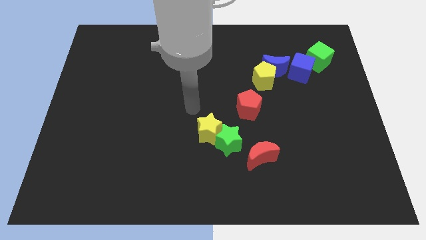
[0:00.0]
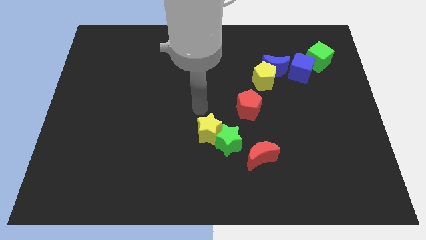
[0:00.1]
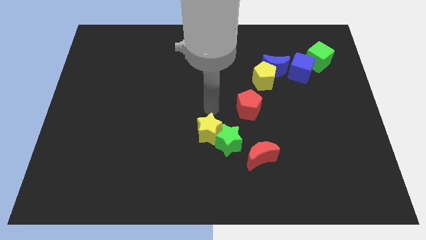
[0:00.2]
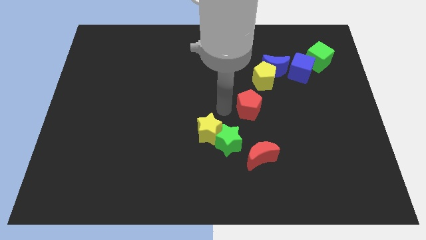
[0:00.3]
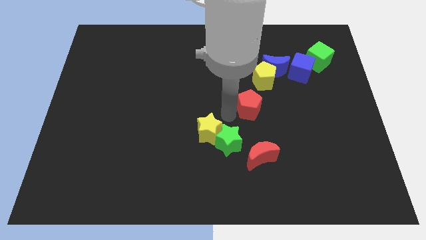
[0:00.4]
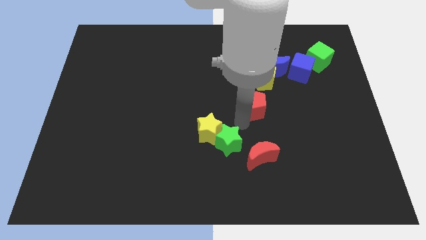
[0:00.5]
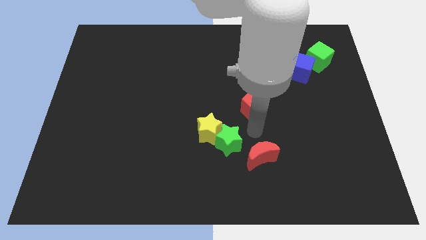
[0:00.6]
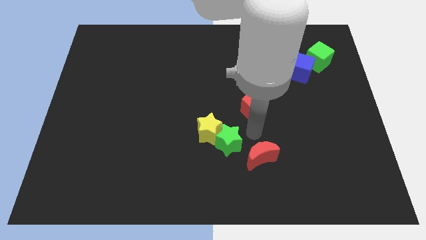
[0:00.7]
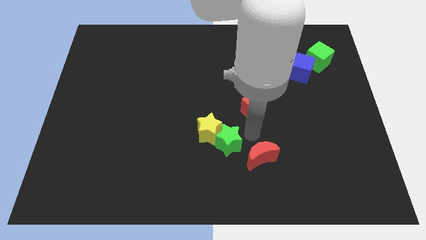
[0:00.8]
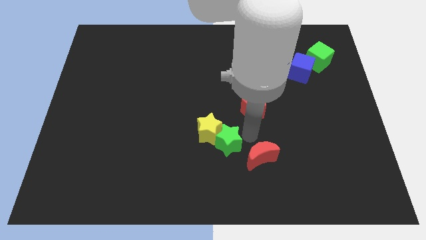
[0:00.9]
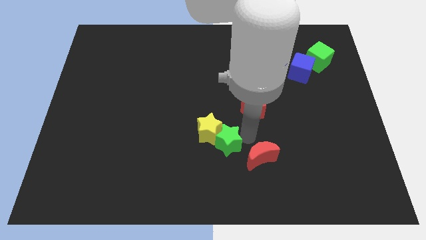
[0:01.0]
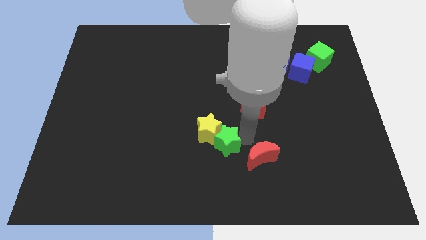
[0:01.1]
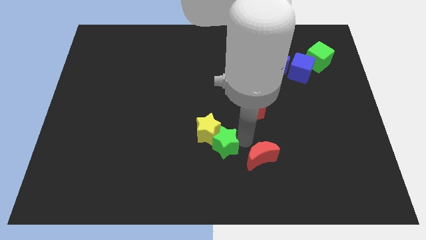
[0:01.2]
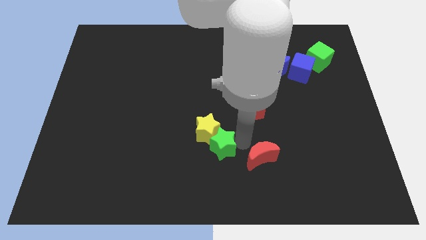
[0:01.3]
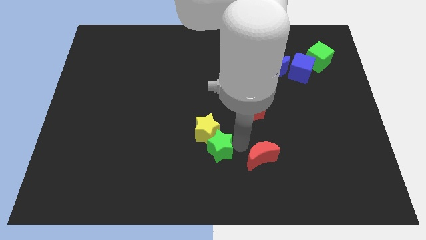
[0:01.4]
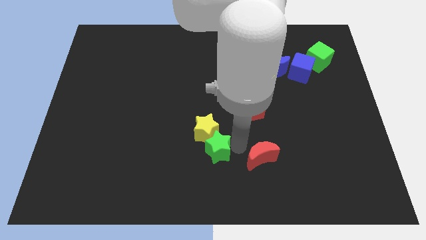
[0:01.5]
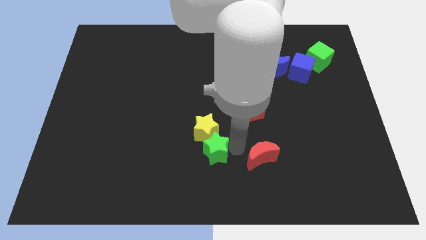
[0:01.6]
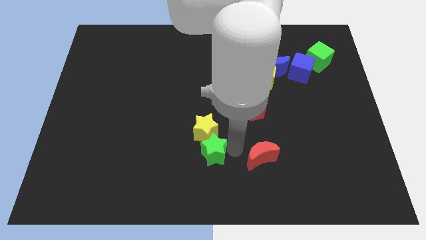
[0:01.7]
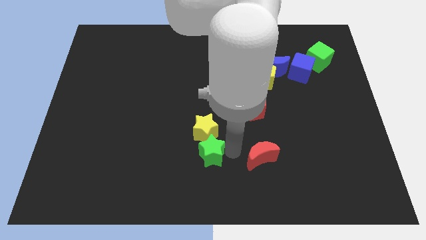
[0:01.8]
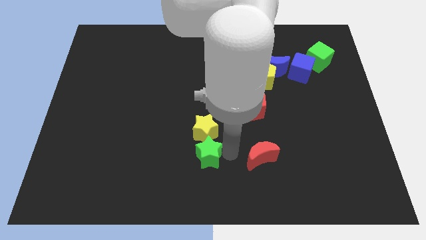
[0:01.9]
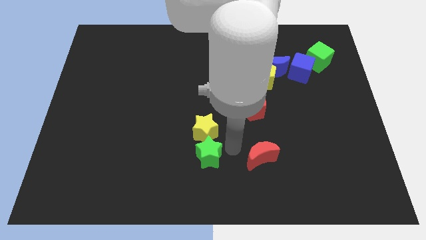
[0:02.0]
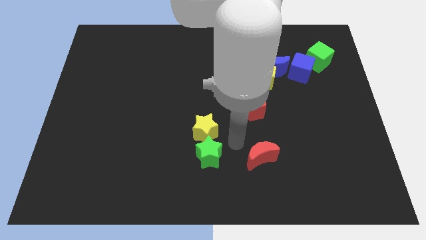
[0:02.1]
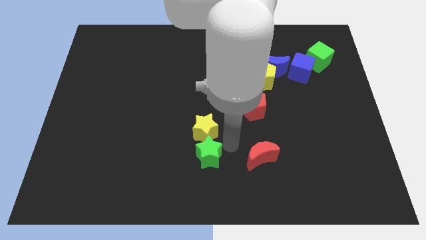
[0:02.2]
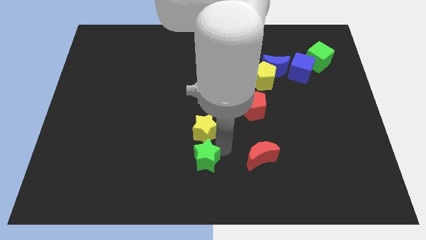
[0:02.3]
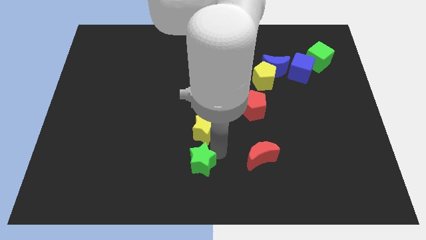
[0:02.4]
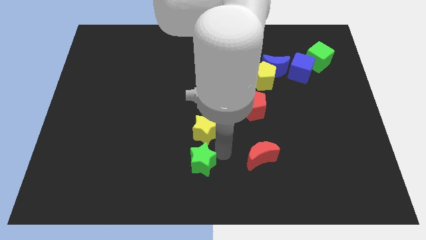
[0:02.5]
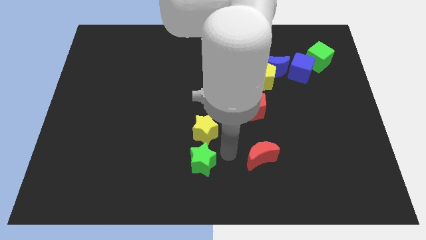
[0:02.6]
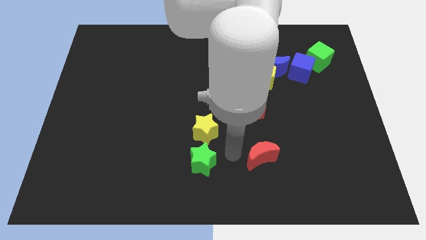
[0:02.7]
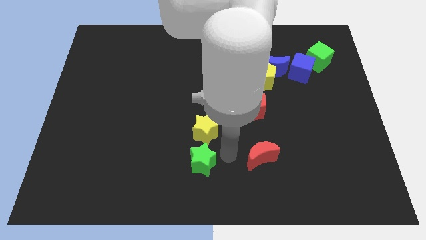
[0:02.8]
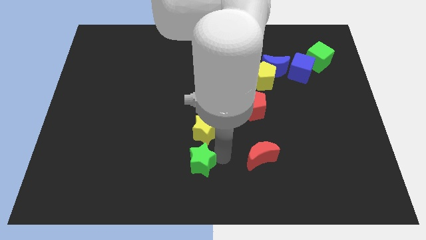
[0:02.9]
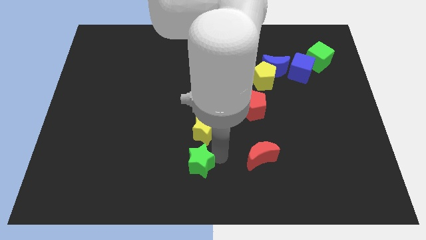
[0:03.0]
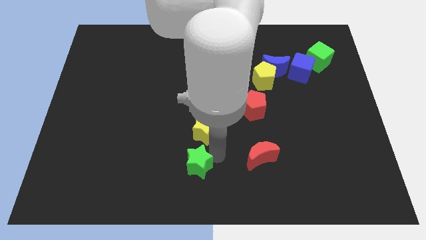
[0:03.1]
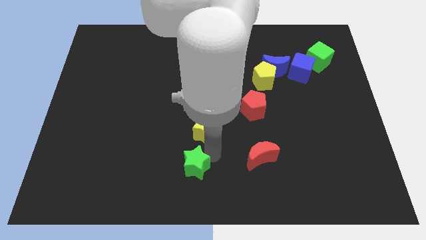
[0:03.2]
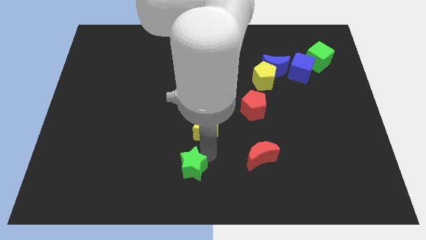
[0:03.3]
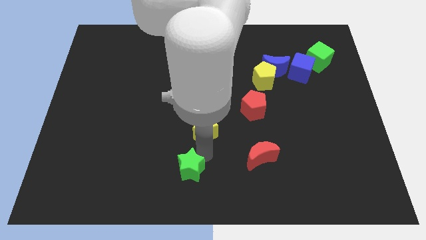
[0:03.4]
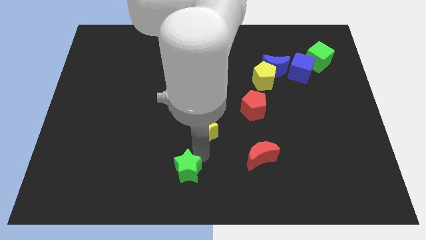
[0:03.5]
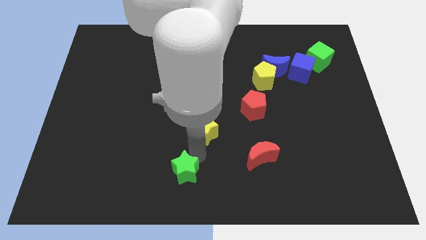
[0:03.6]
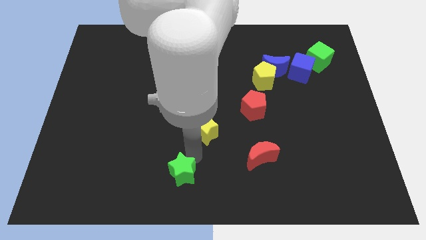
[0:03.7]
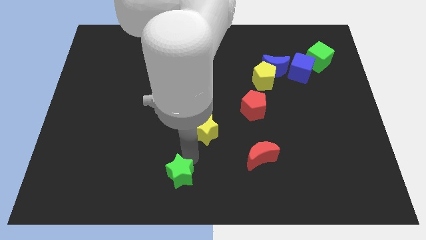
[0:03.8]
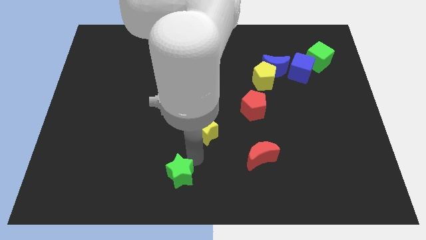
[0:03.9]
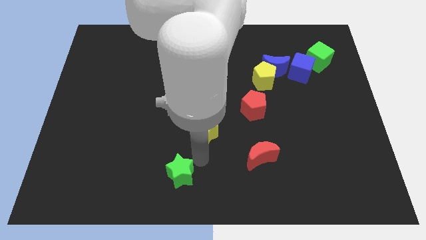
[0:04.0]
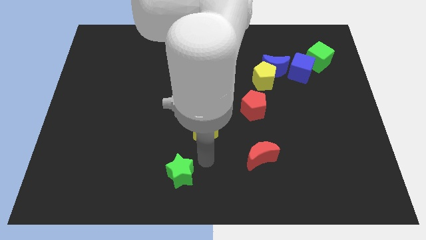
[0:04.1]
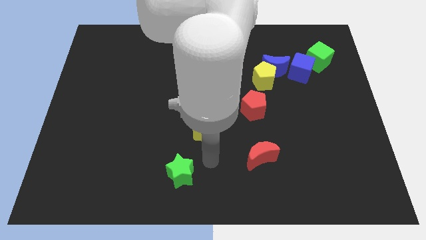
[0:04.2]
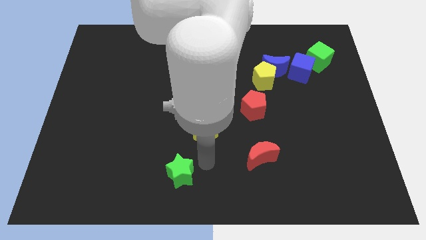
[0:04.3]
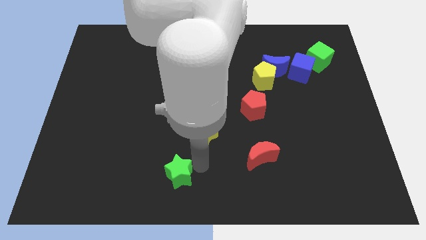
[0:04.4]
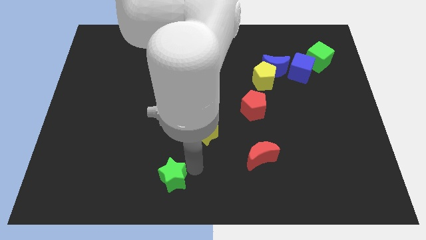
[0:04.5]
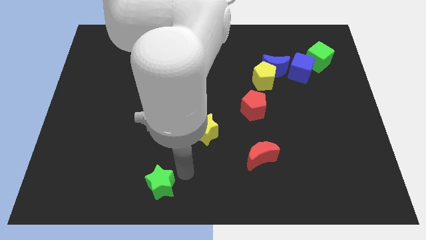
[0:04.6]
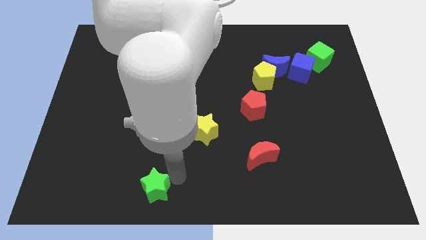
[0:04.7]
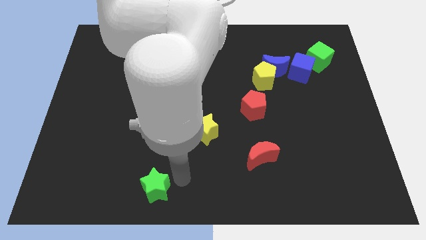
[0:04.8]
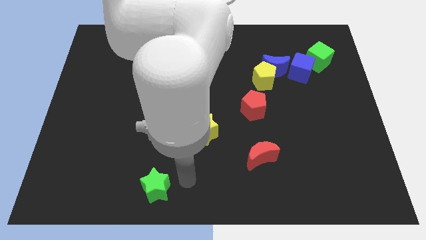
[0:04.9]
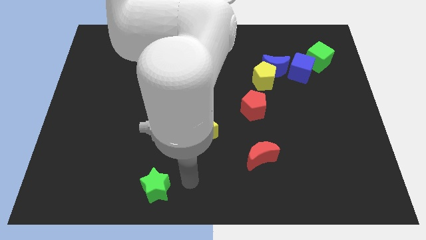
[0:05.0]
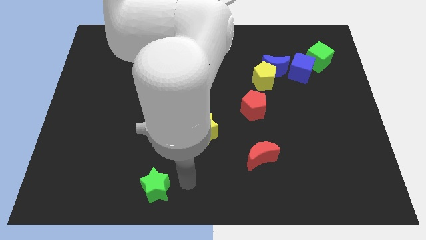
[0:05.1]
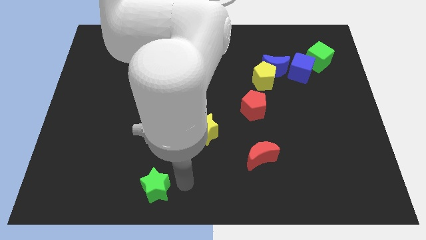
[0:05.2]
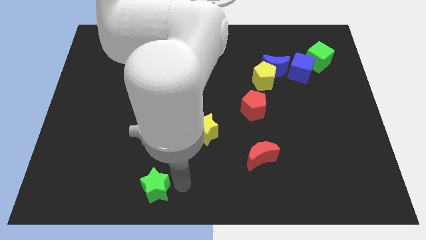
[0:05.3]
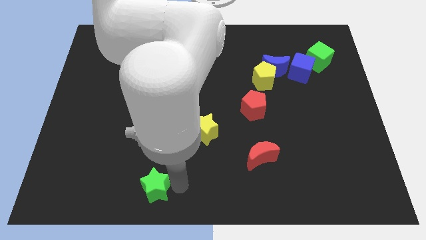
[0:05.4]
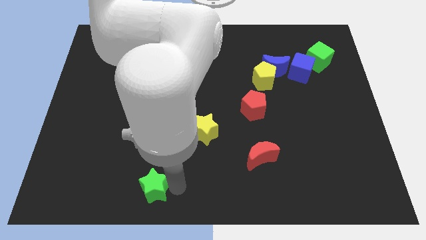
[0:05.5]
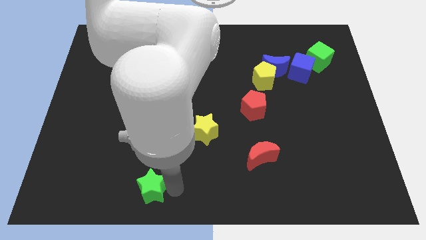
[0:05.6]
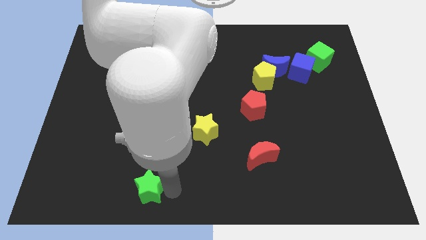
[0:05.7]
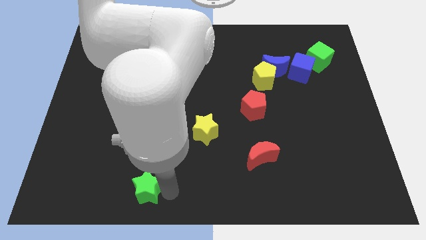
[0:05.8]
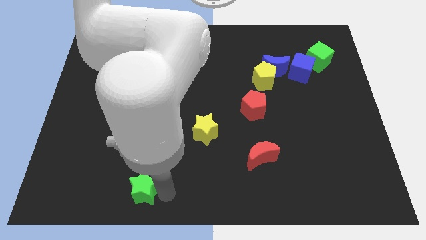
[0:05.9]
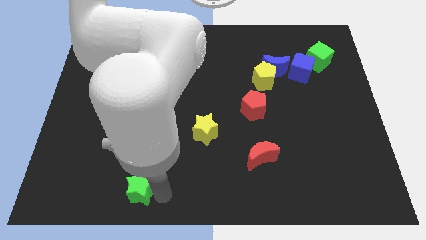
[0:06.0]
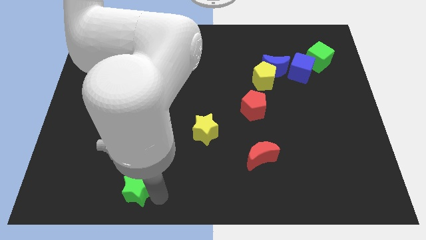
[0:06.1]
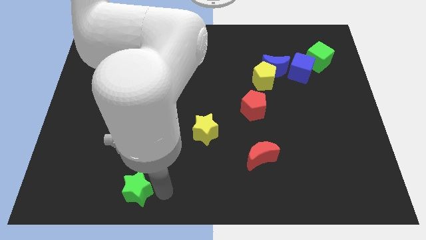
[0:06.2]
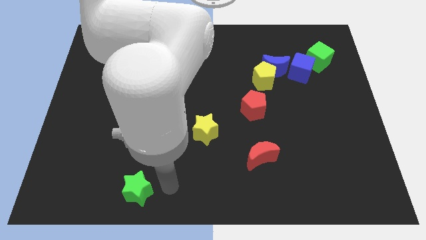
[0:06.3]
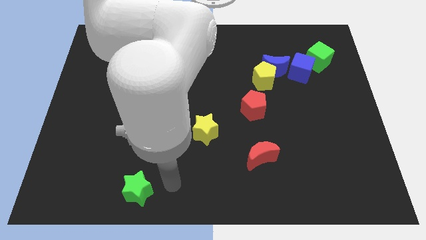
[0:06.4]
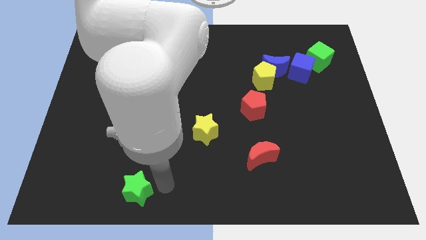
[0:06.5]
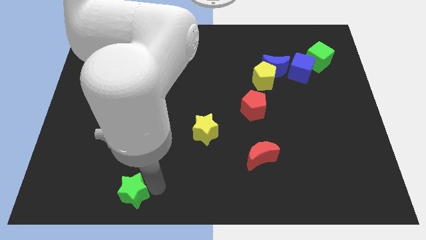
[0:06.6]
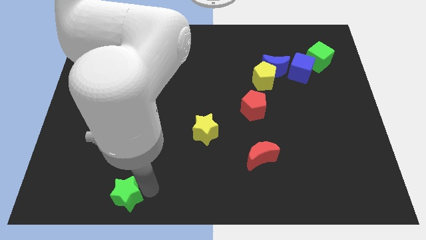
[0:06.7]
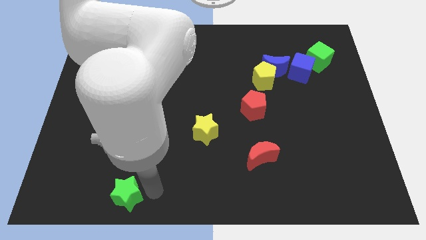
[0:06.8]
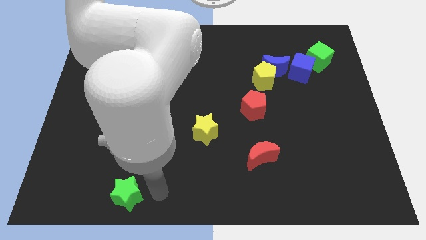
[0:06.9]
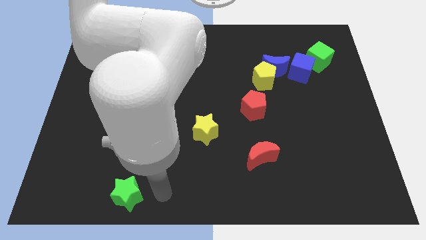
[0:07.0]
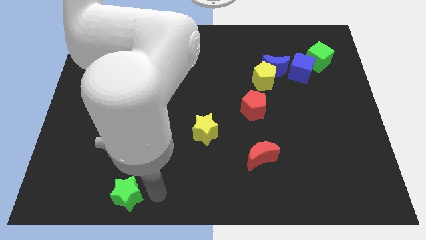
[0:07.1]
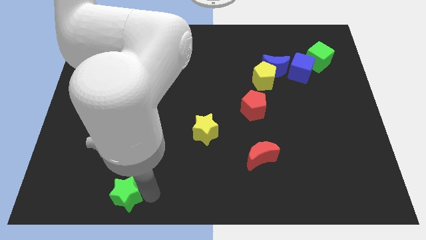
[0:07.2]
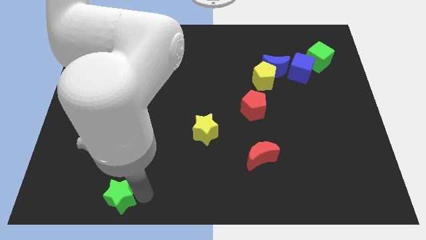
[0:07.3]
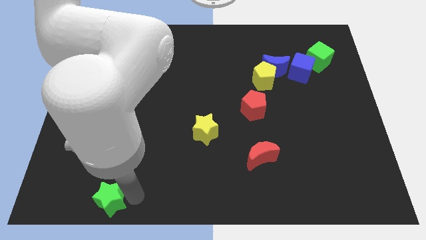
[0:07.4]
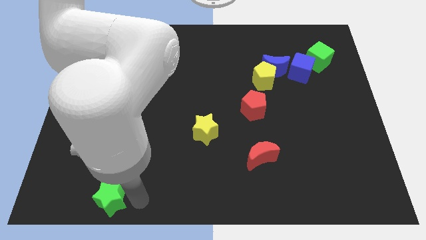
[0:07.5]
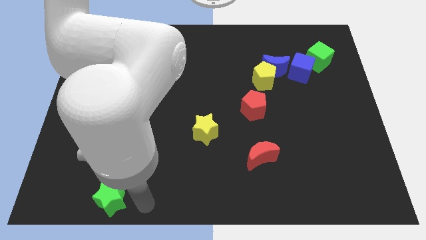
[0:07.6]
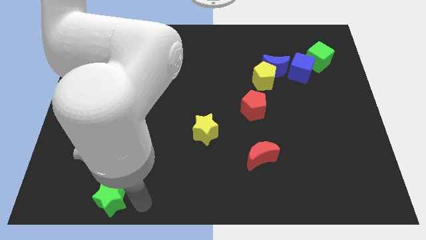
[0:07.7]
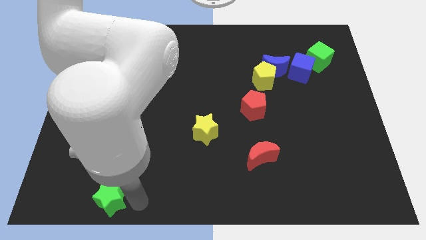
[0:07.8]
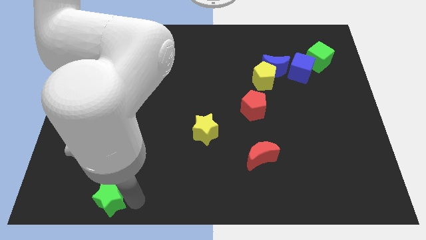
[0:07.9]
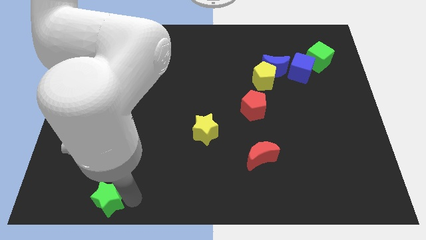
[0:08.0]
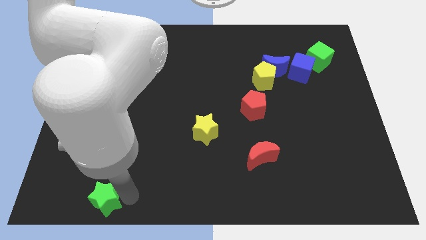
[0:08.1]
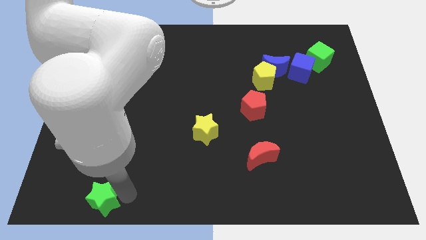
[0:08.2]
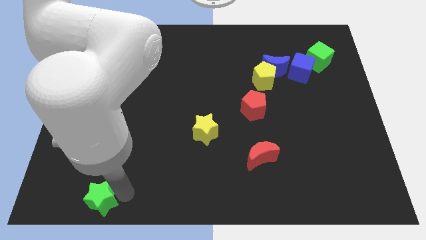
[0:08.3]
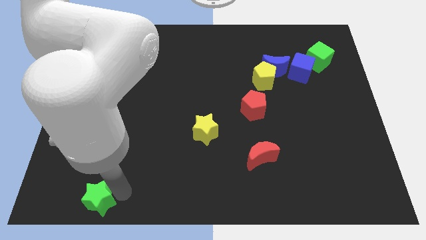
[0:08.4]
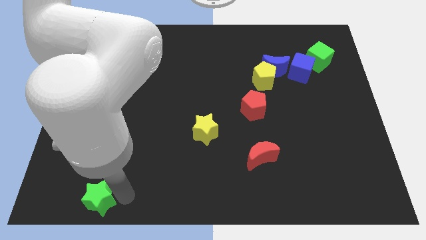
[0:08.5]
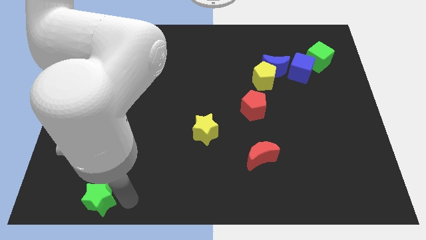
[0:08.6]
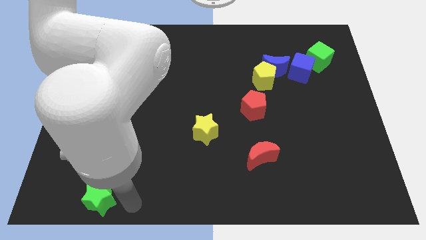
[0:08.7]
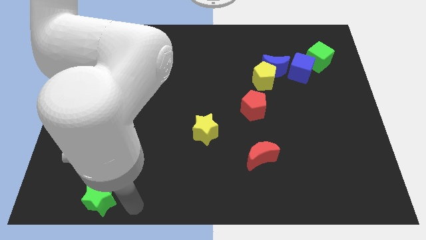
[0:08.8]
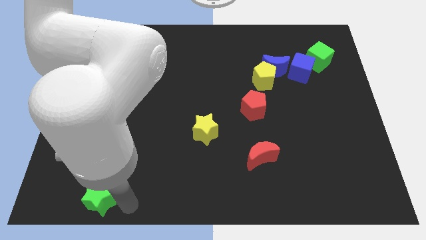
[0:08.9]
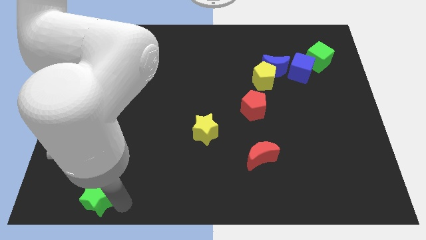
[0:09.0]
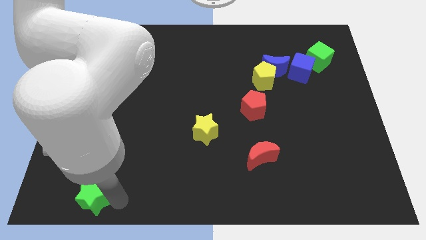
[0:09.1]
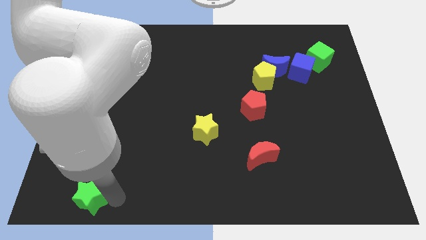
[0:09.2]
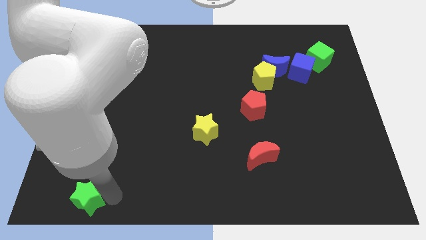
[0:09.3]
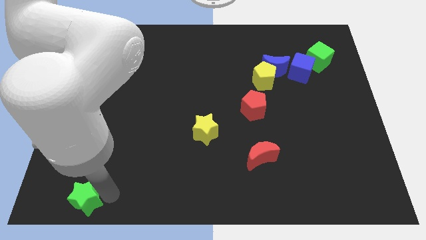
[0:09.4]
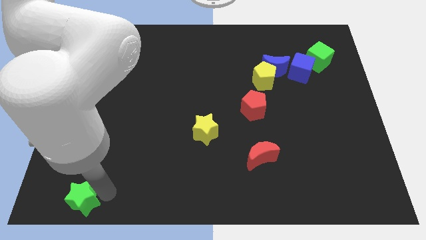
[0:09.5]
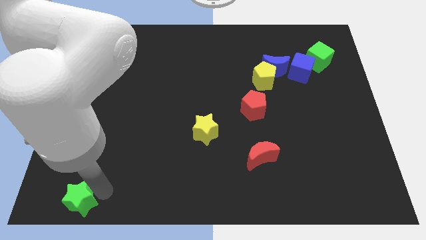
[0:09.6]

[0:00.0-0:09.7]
push the green star to the lower left corner
